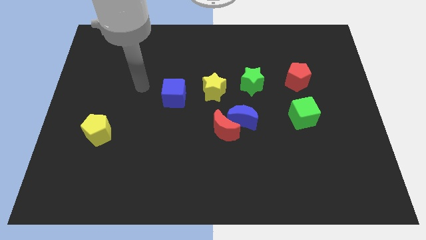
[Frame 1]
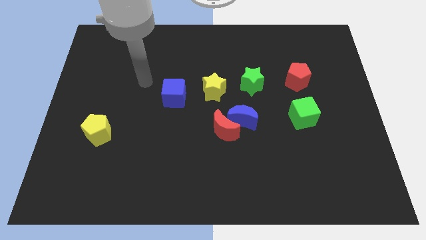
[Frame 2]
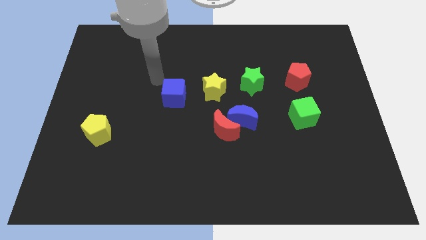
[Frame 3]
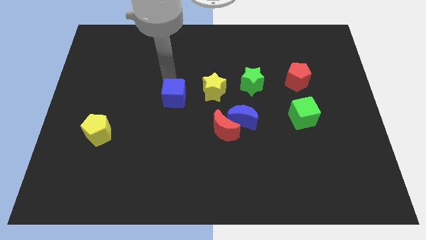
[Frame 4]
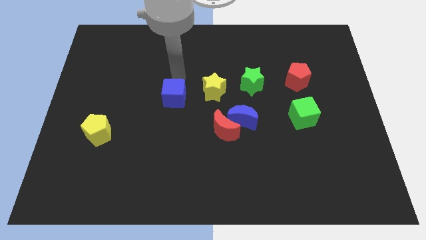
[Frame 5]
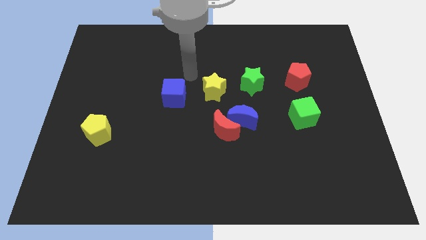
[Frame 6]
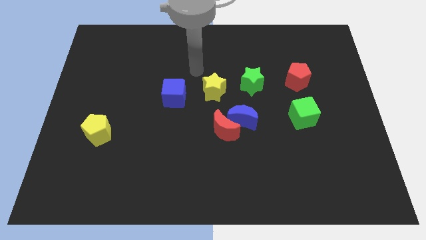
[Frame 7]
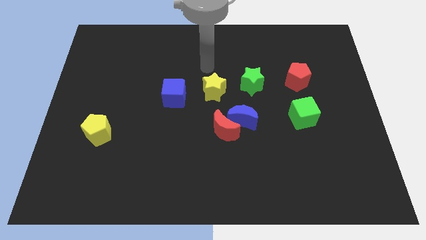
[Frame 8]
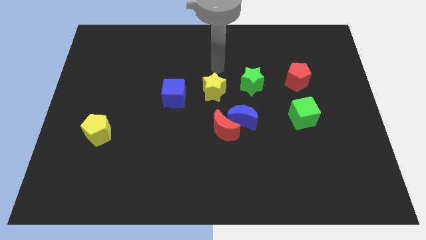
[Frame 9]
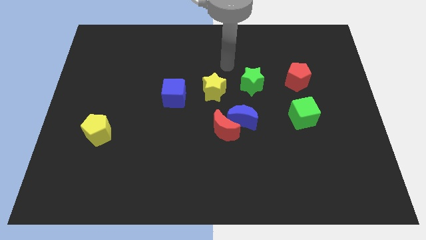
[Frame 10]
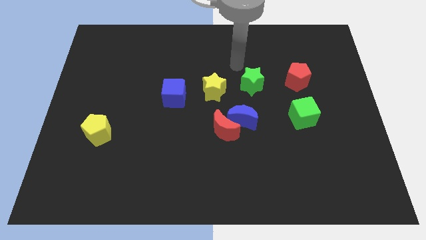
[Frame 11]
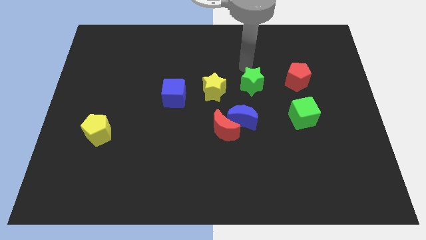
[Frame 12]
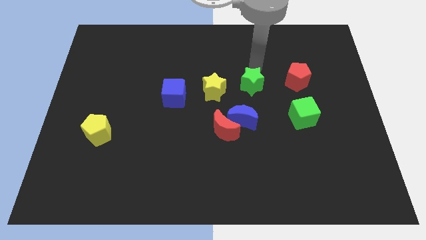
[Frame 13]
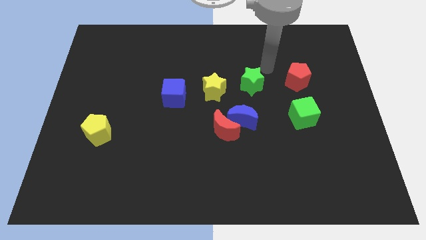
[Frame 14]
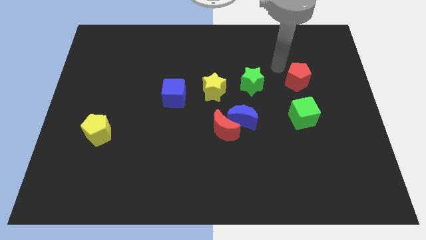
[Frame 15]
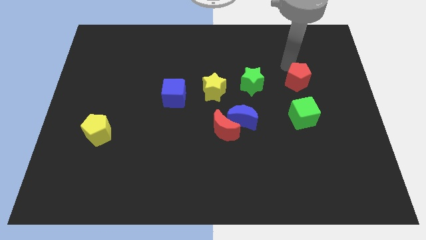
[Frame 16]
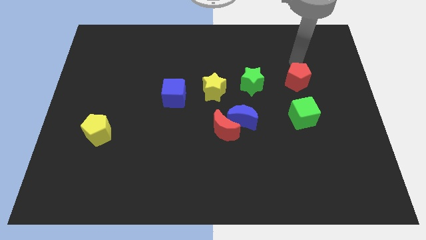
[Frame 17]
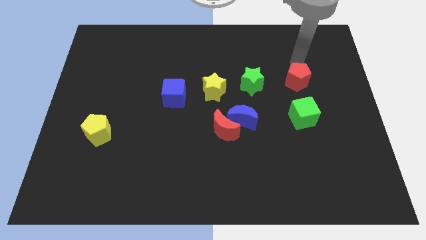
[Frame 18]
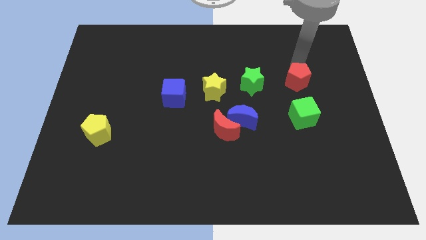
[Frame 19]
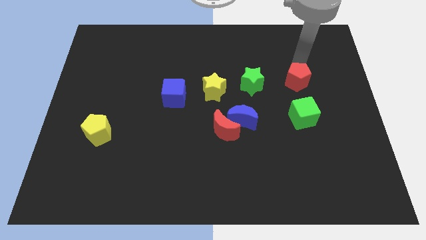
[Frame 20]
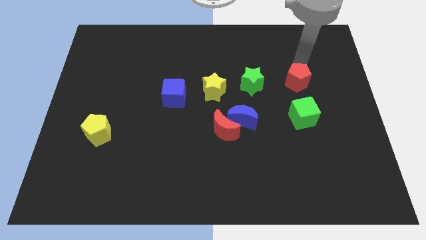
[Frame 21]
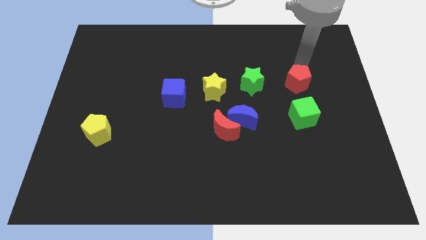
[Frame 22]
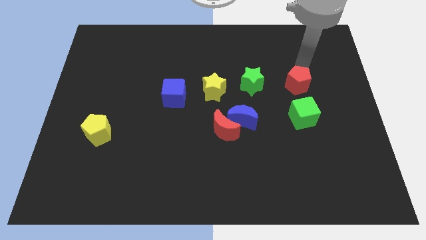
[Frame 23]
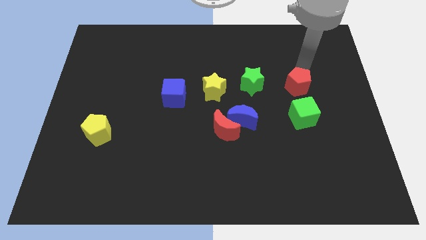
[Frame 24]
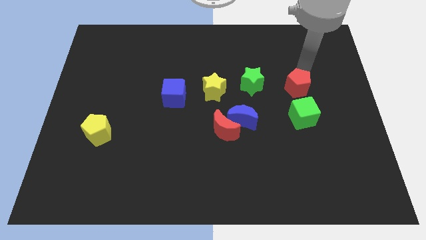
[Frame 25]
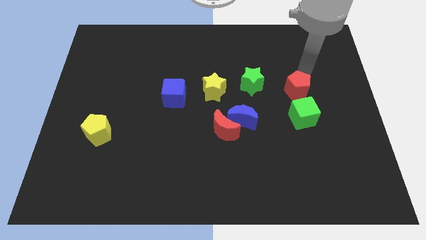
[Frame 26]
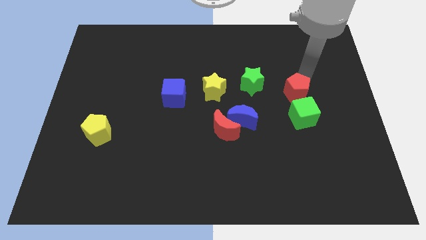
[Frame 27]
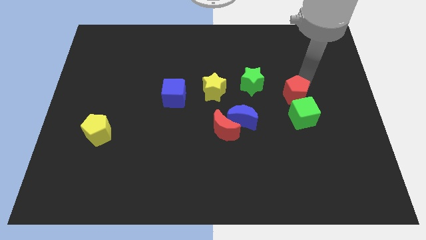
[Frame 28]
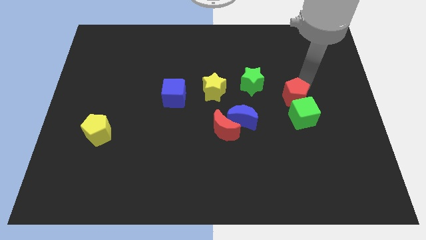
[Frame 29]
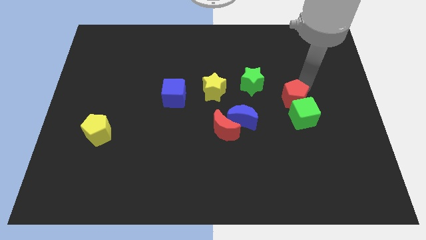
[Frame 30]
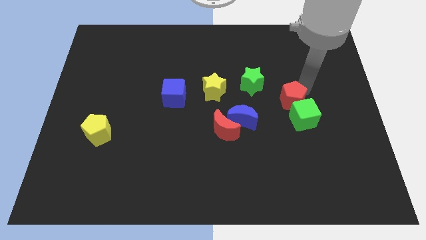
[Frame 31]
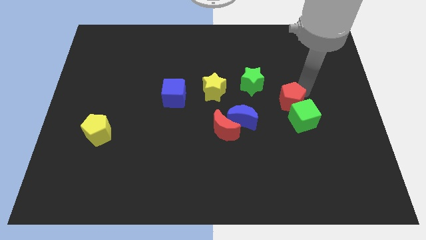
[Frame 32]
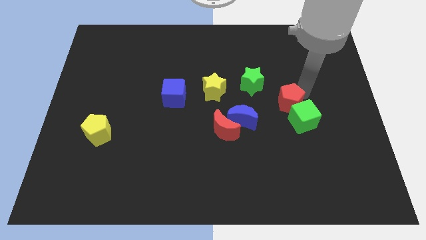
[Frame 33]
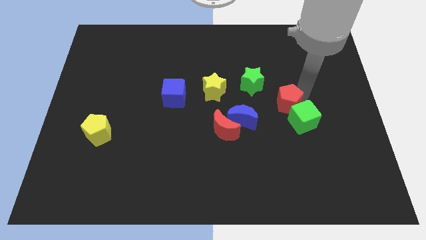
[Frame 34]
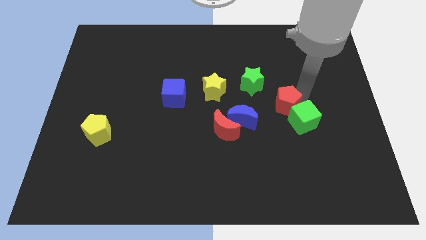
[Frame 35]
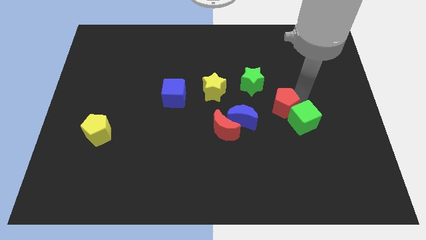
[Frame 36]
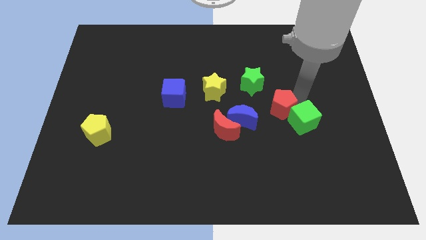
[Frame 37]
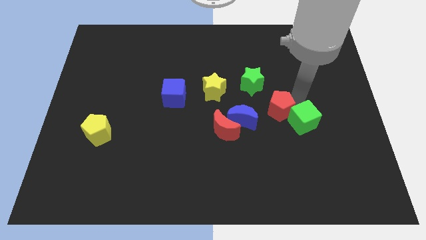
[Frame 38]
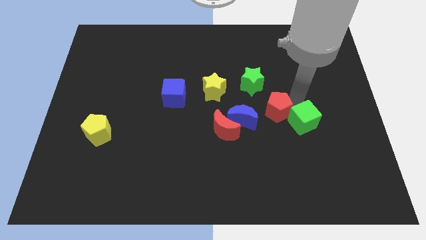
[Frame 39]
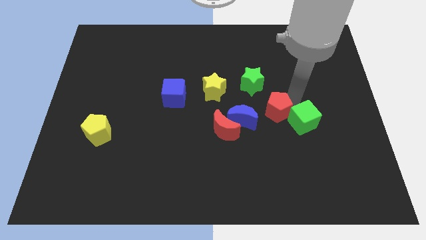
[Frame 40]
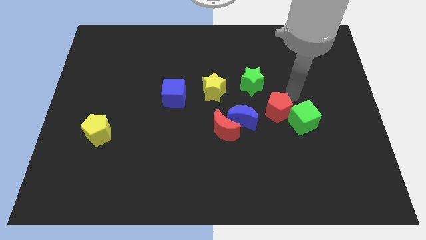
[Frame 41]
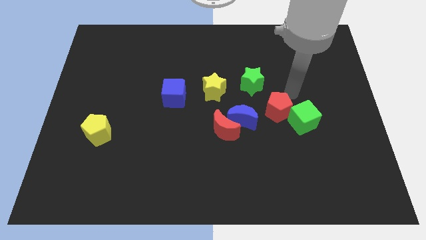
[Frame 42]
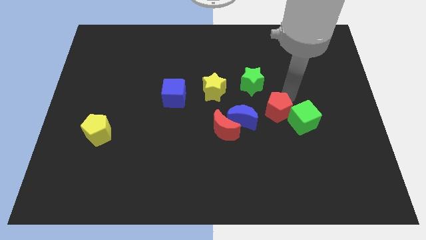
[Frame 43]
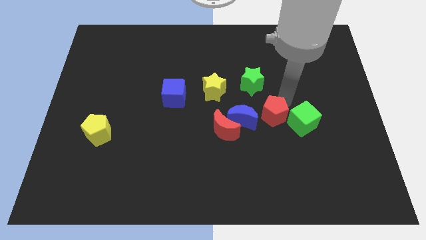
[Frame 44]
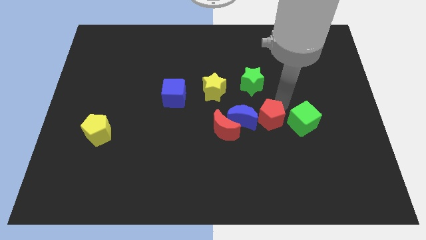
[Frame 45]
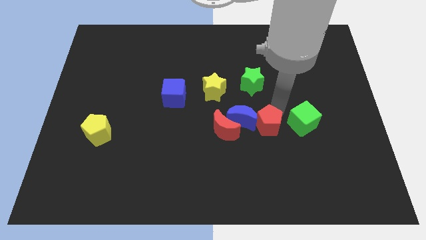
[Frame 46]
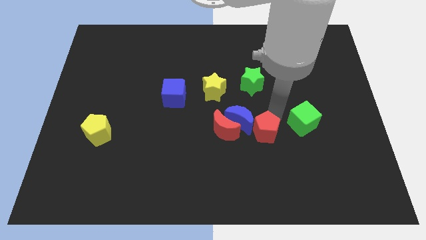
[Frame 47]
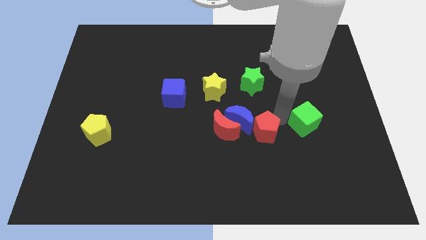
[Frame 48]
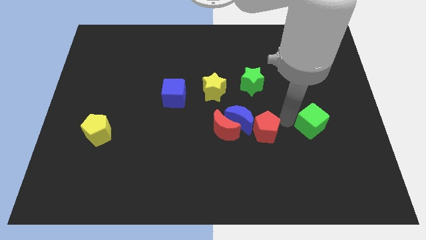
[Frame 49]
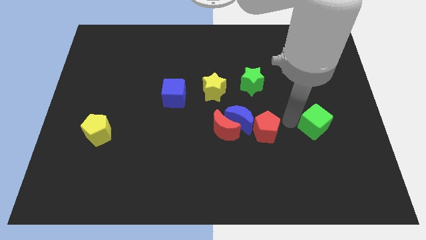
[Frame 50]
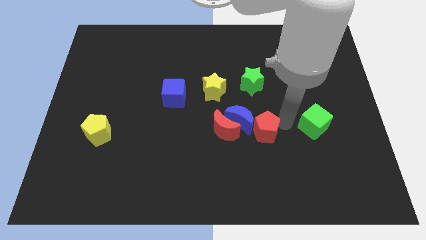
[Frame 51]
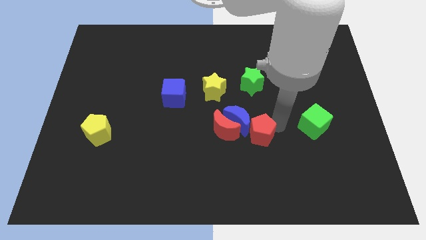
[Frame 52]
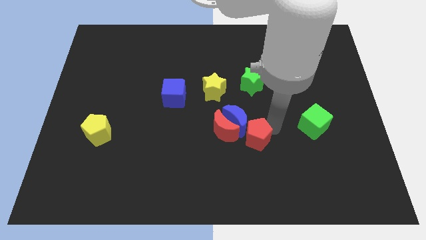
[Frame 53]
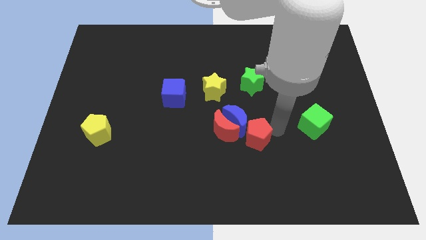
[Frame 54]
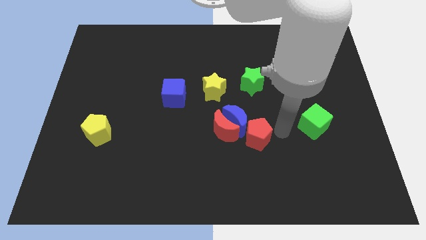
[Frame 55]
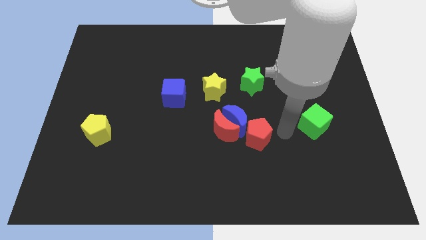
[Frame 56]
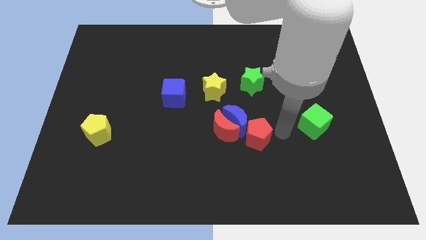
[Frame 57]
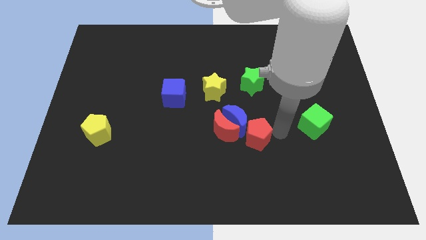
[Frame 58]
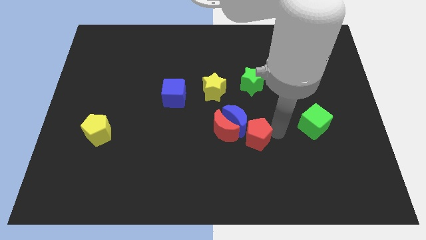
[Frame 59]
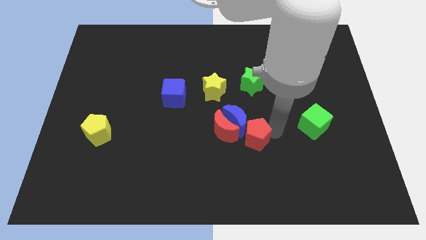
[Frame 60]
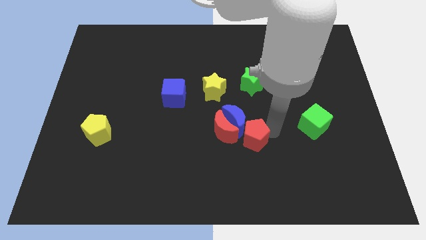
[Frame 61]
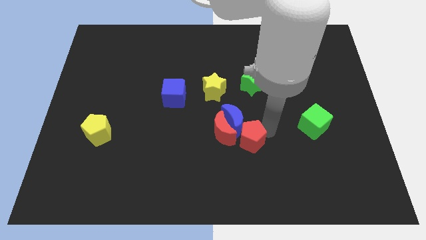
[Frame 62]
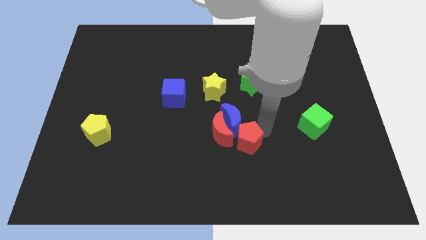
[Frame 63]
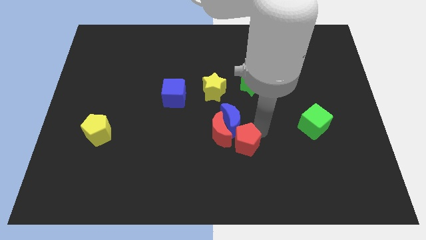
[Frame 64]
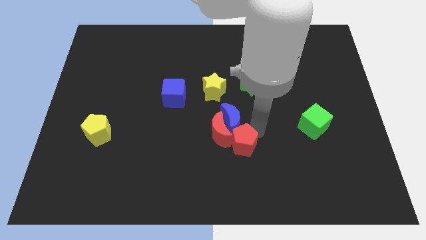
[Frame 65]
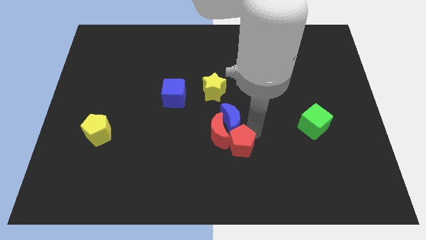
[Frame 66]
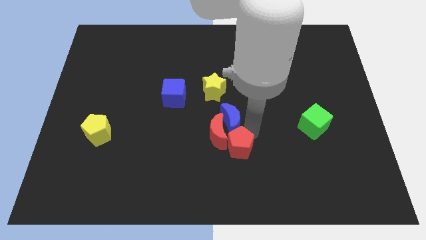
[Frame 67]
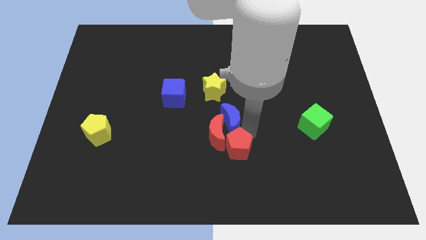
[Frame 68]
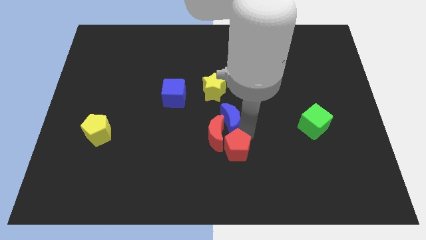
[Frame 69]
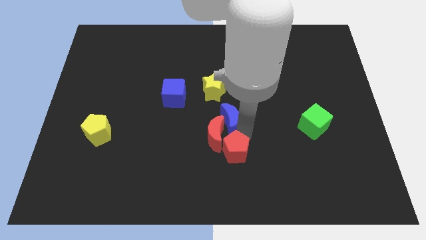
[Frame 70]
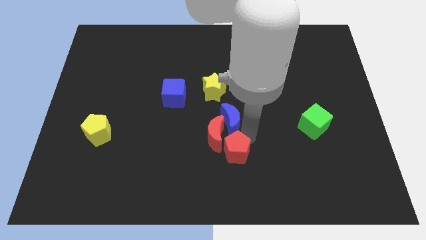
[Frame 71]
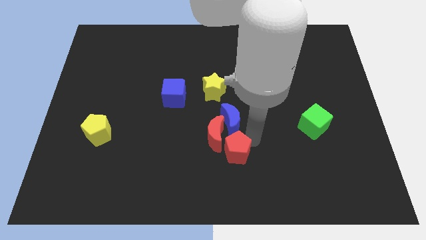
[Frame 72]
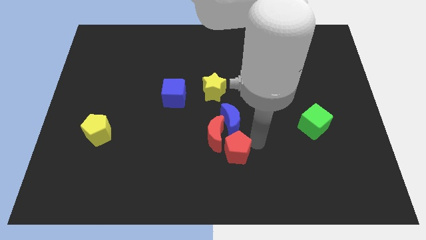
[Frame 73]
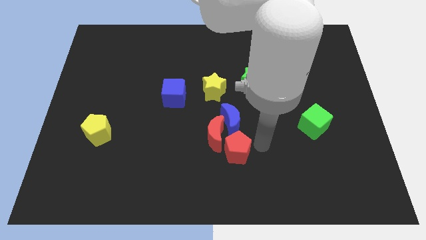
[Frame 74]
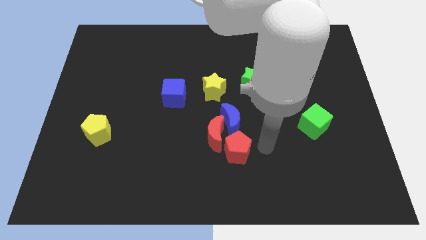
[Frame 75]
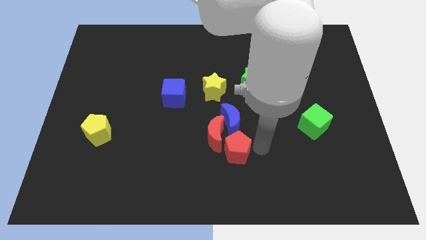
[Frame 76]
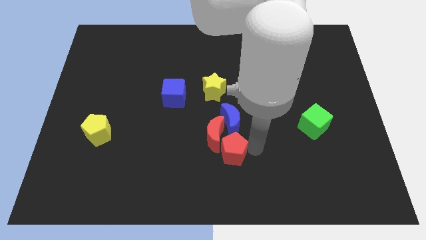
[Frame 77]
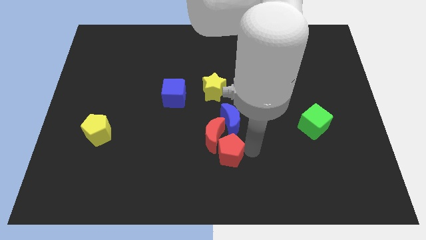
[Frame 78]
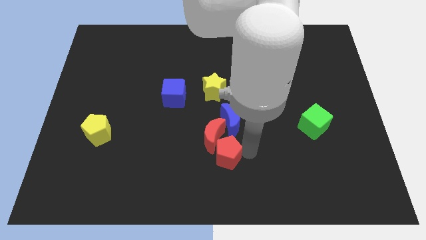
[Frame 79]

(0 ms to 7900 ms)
put the red pentagon to the bottom left side of the blue moon
